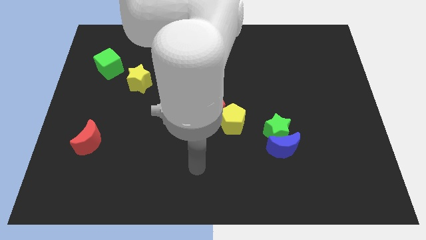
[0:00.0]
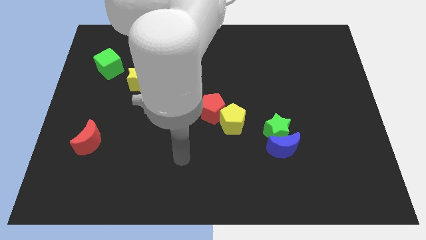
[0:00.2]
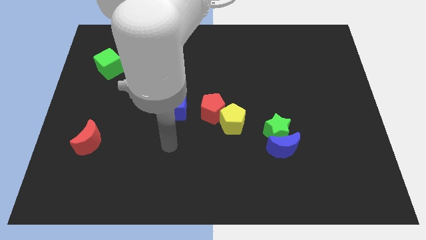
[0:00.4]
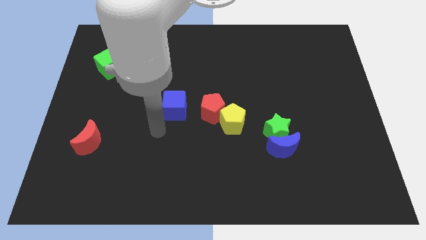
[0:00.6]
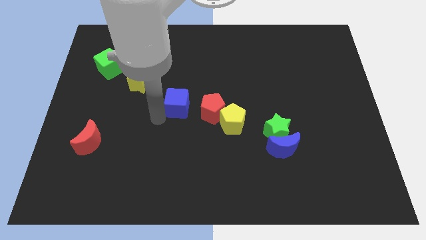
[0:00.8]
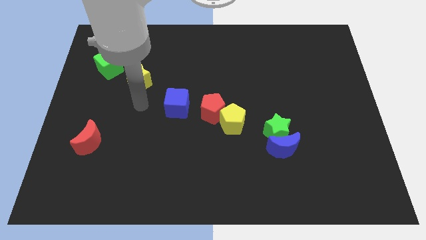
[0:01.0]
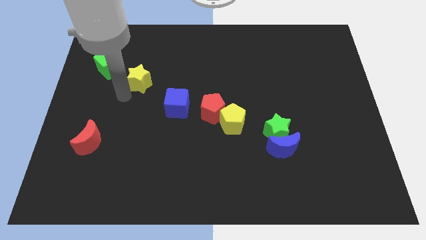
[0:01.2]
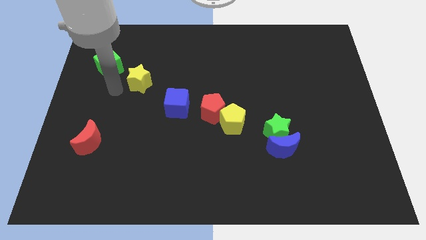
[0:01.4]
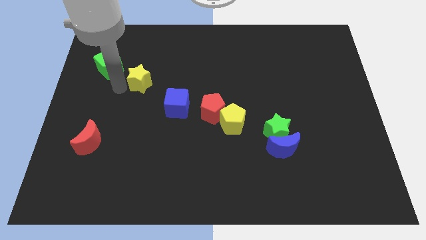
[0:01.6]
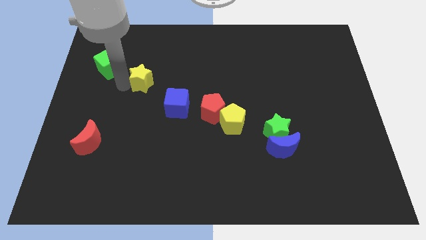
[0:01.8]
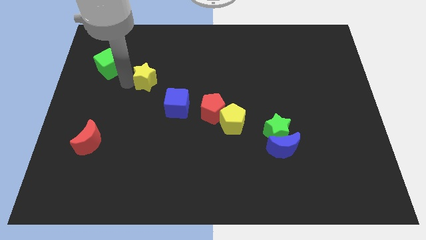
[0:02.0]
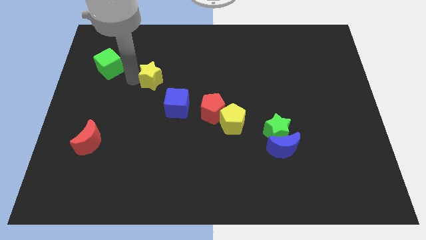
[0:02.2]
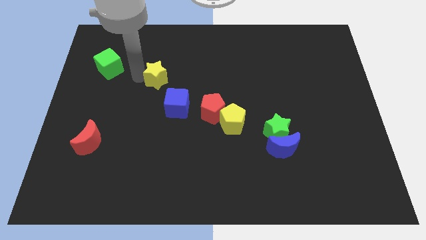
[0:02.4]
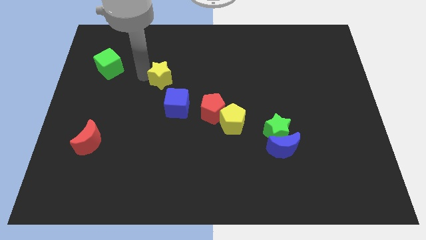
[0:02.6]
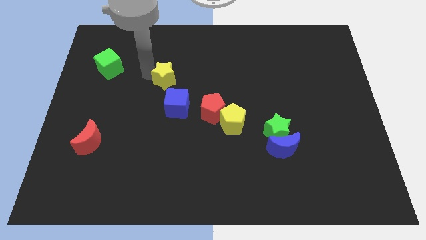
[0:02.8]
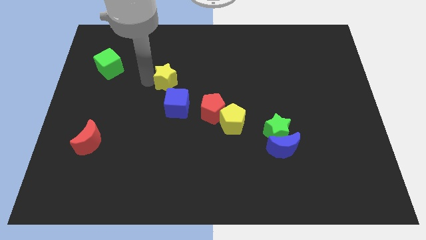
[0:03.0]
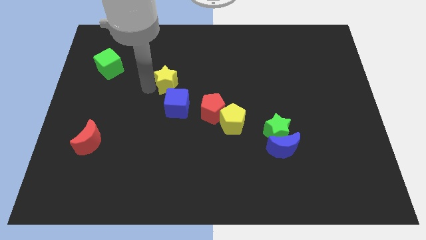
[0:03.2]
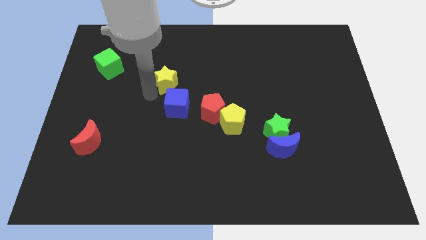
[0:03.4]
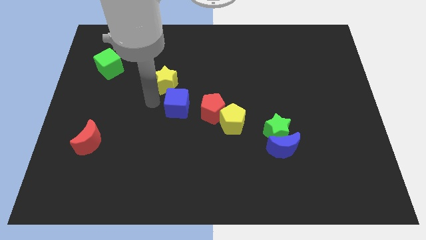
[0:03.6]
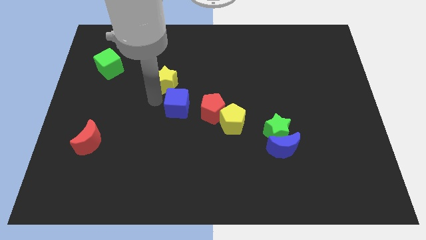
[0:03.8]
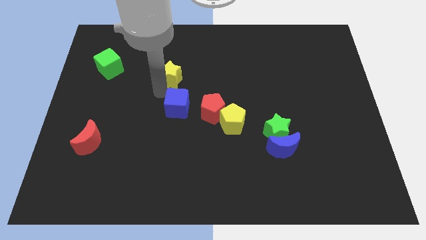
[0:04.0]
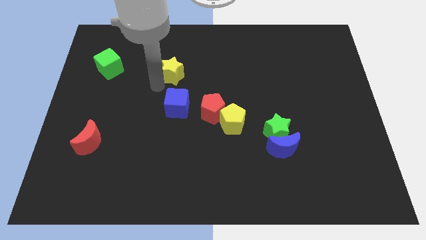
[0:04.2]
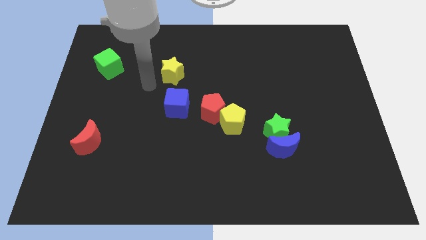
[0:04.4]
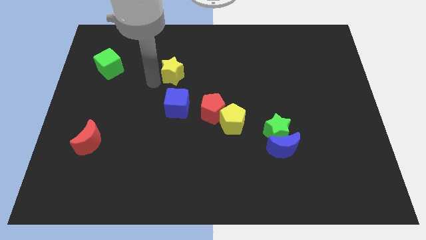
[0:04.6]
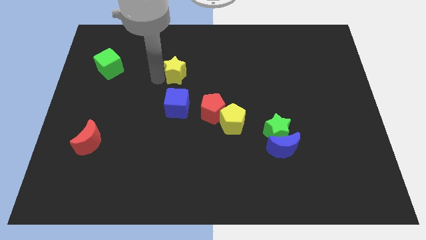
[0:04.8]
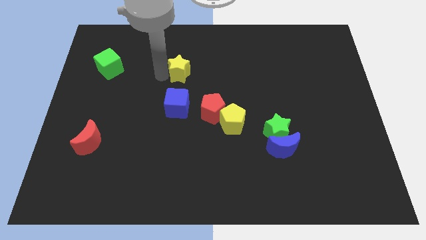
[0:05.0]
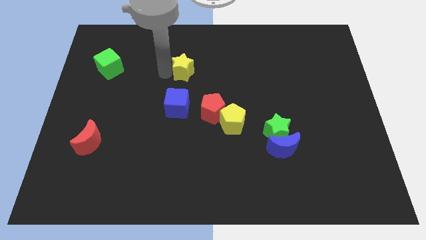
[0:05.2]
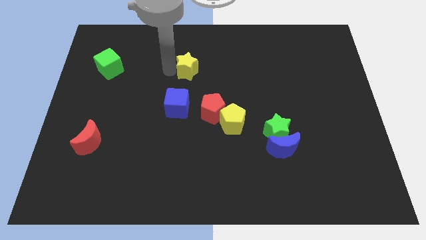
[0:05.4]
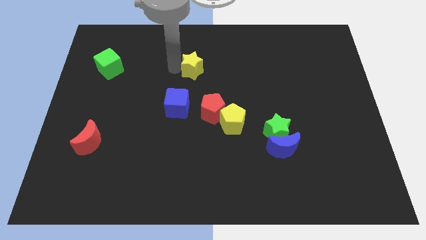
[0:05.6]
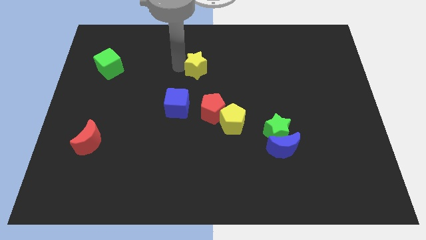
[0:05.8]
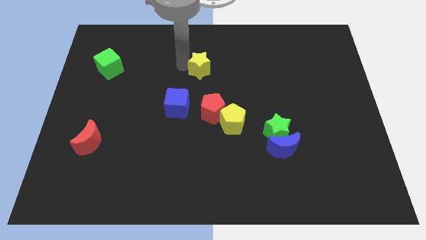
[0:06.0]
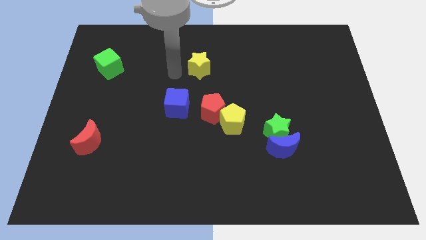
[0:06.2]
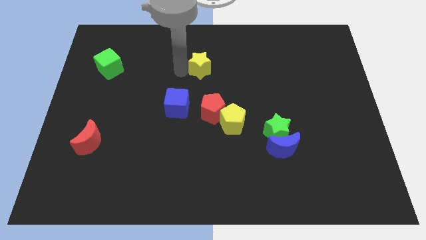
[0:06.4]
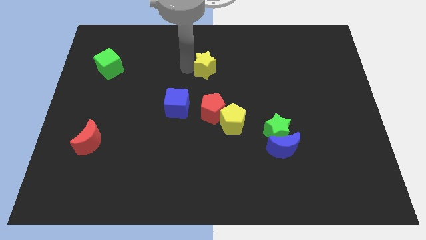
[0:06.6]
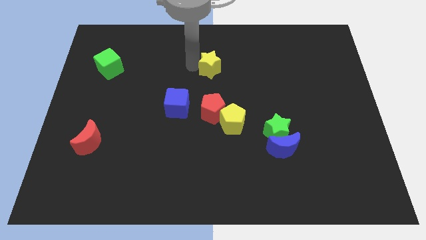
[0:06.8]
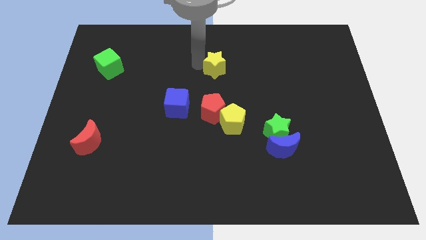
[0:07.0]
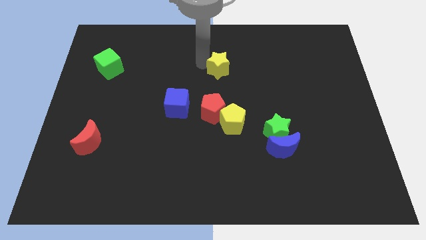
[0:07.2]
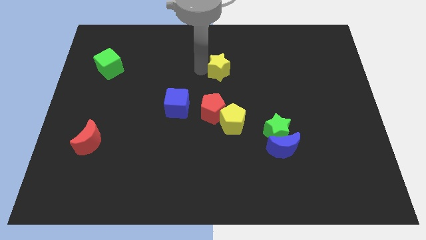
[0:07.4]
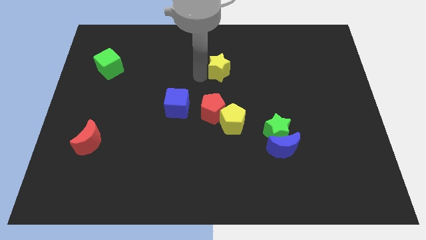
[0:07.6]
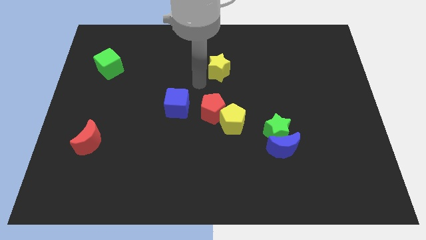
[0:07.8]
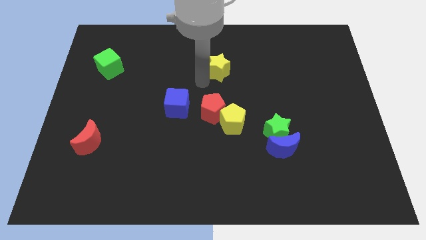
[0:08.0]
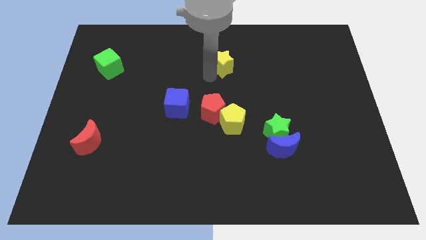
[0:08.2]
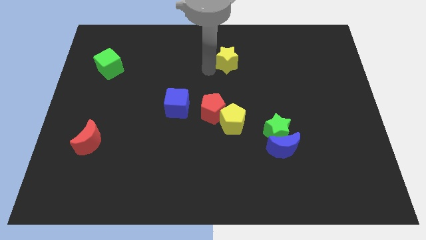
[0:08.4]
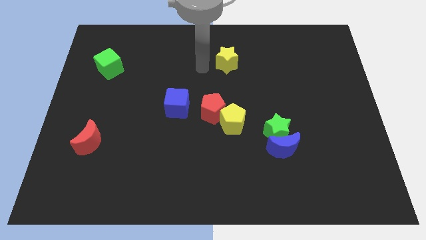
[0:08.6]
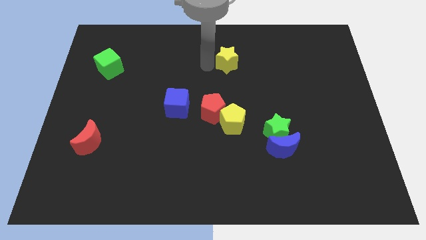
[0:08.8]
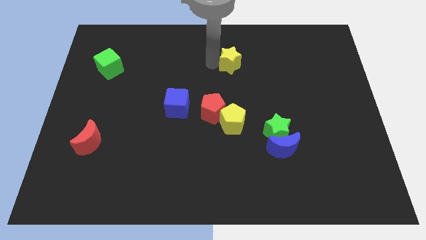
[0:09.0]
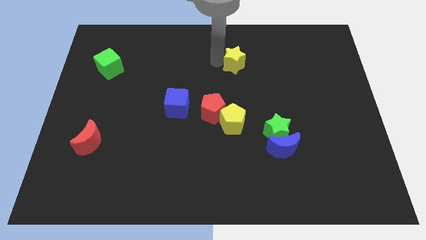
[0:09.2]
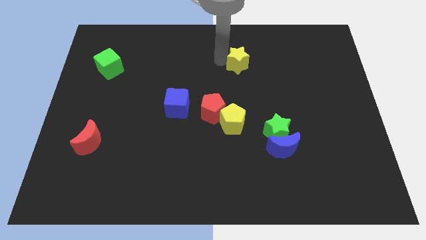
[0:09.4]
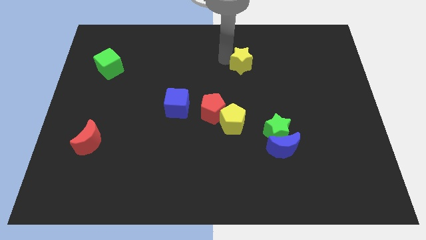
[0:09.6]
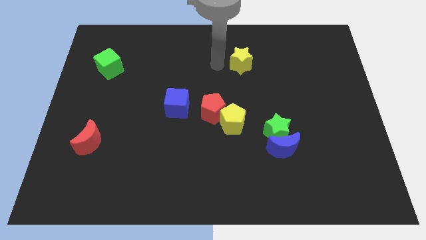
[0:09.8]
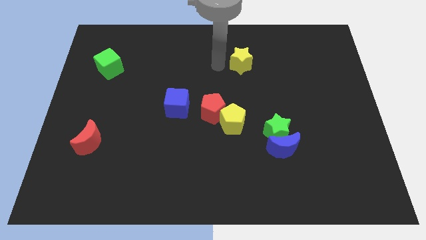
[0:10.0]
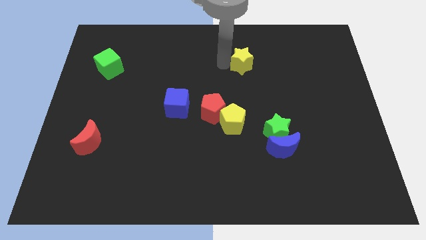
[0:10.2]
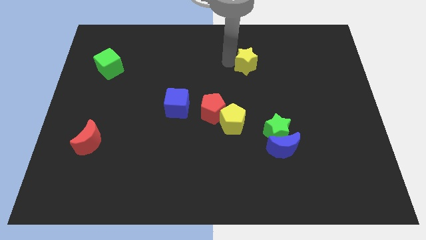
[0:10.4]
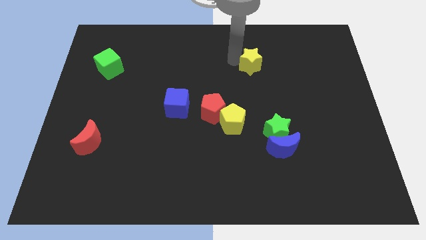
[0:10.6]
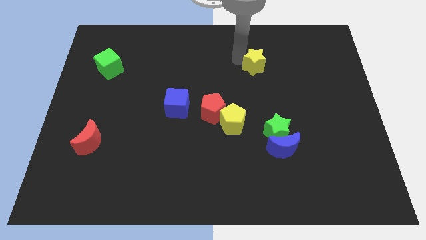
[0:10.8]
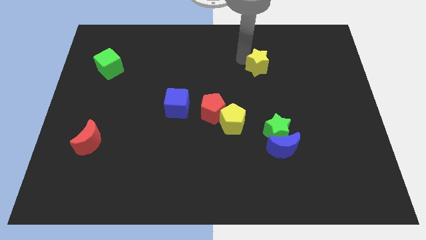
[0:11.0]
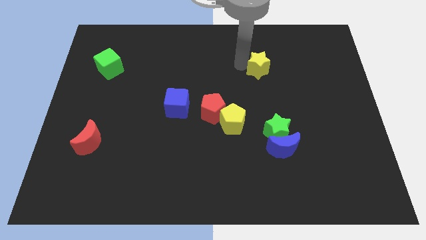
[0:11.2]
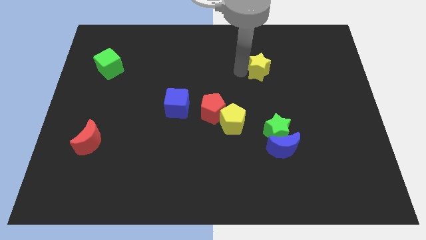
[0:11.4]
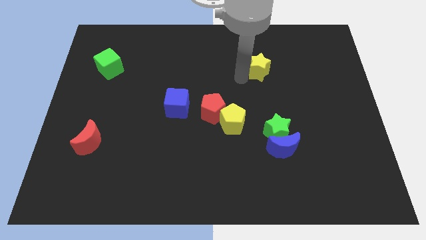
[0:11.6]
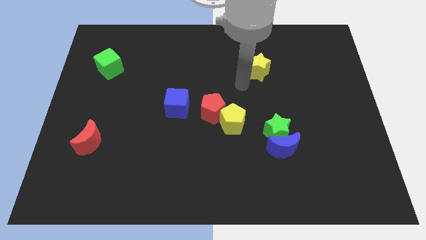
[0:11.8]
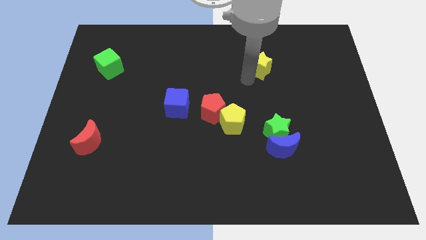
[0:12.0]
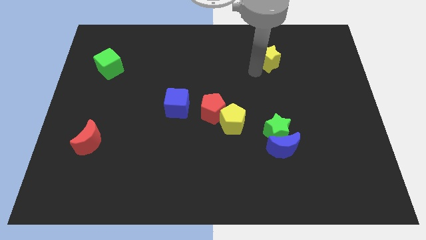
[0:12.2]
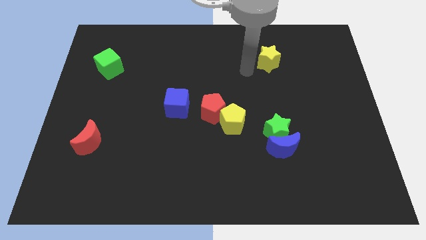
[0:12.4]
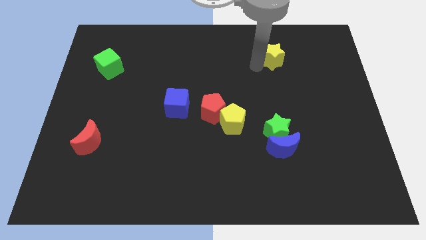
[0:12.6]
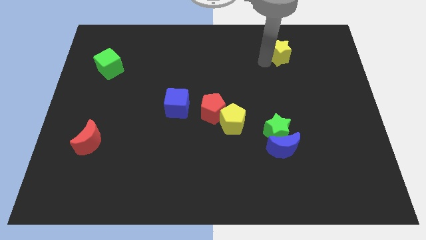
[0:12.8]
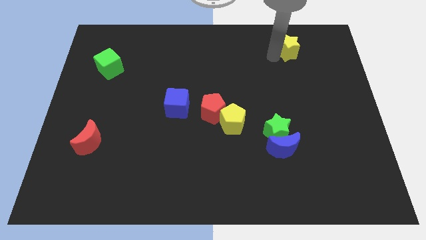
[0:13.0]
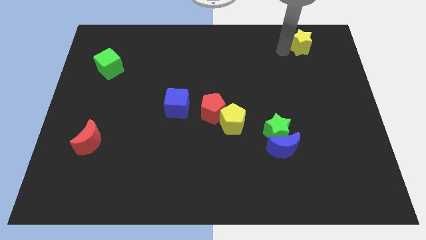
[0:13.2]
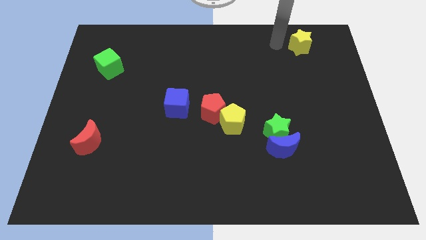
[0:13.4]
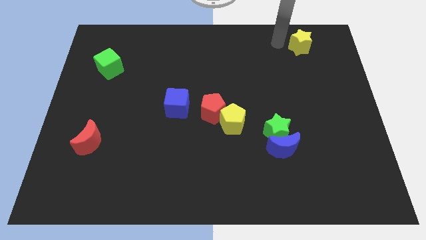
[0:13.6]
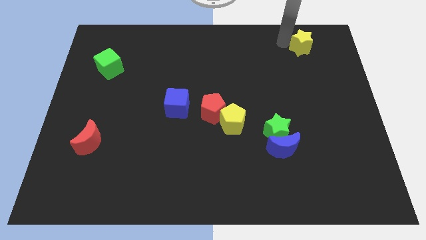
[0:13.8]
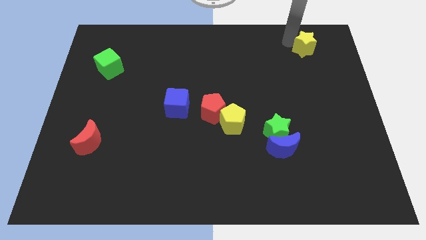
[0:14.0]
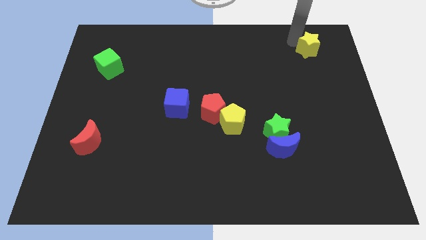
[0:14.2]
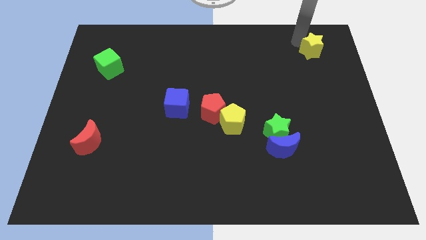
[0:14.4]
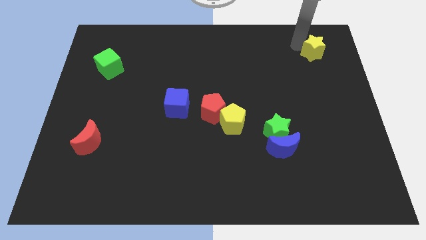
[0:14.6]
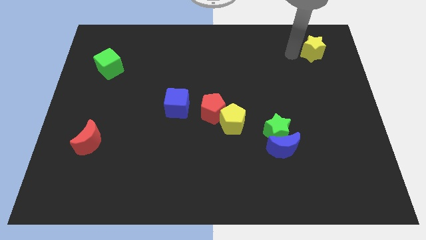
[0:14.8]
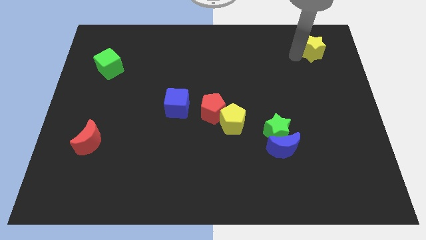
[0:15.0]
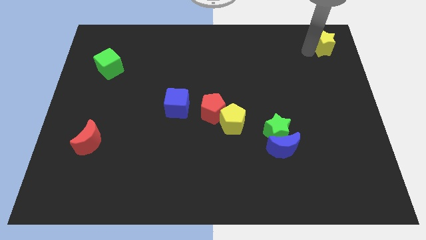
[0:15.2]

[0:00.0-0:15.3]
slide the yellow star to the top right
